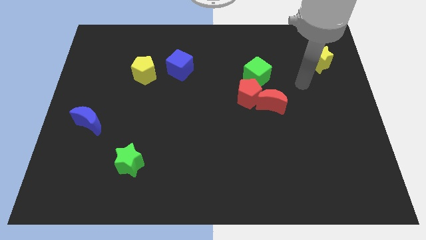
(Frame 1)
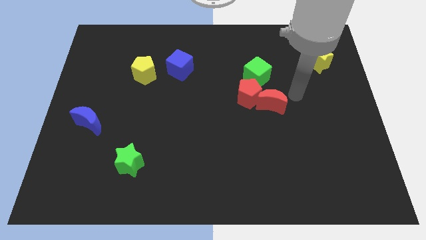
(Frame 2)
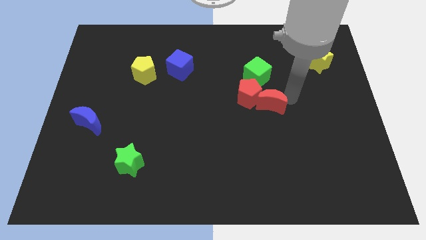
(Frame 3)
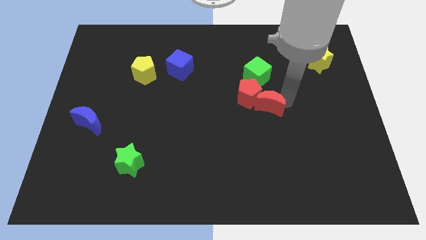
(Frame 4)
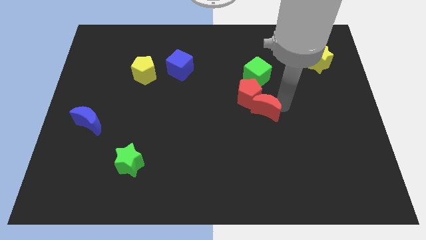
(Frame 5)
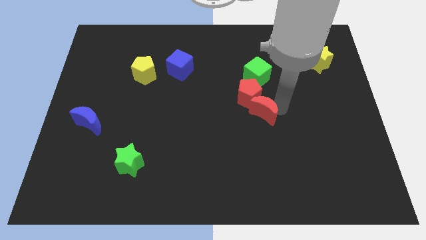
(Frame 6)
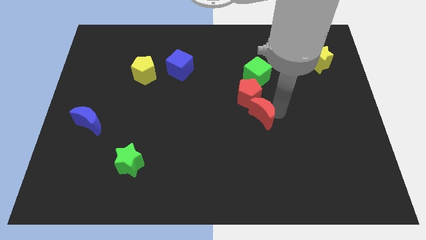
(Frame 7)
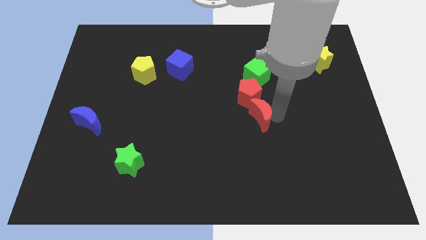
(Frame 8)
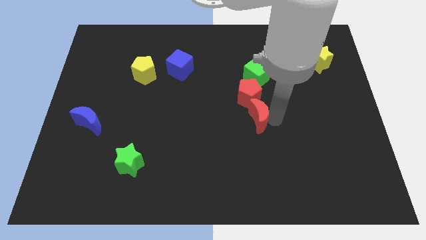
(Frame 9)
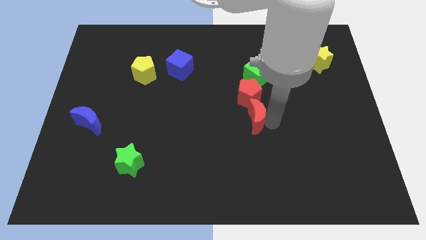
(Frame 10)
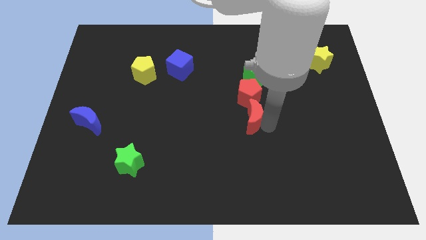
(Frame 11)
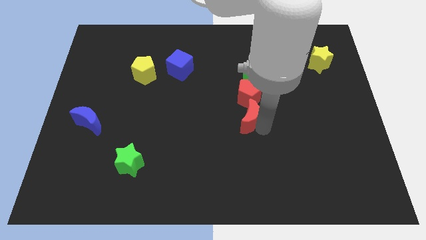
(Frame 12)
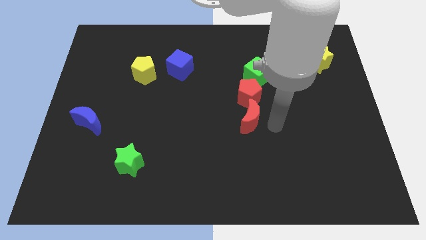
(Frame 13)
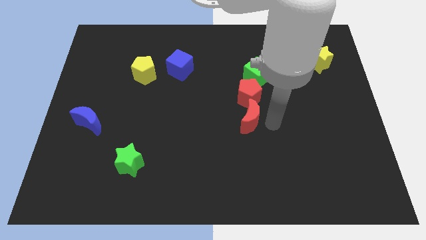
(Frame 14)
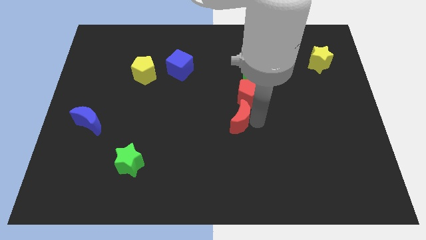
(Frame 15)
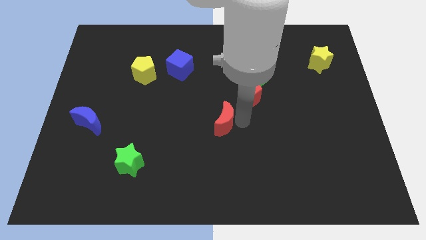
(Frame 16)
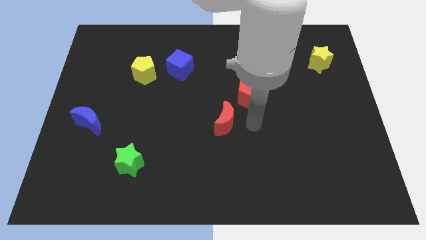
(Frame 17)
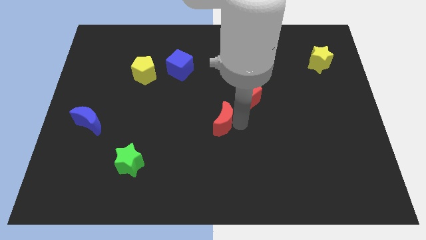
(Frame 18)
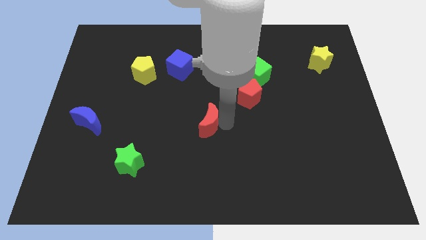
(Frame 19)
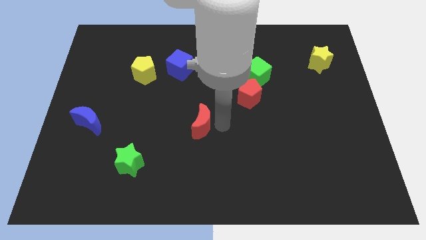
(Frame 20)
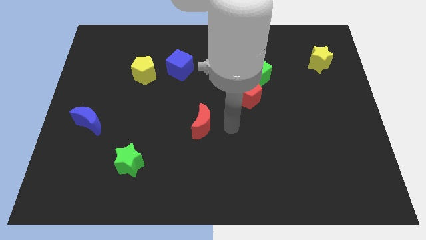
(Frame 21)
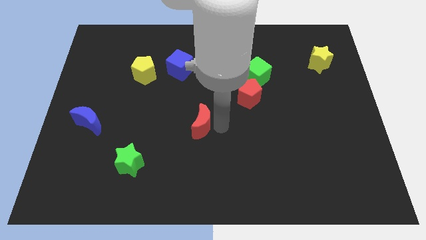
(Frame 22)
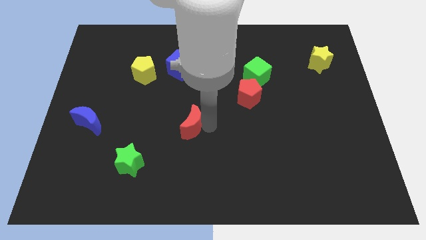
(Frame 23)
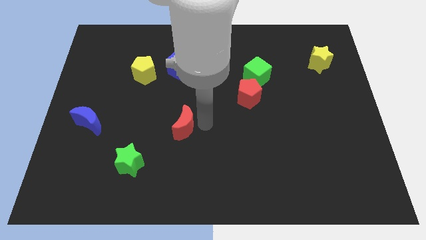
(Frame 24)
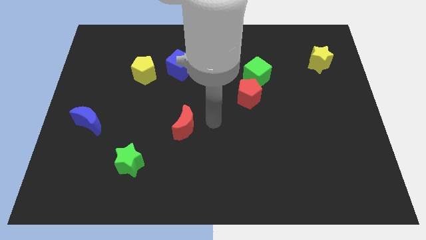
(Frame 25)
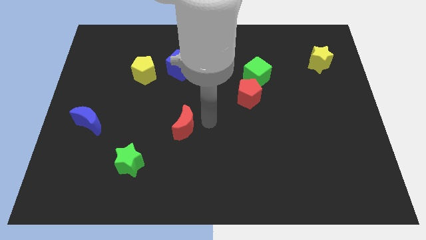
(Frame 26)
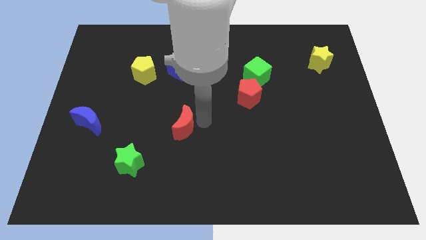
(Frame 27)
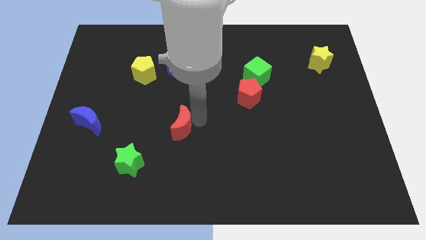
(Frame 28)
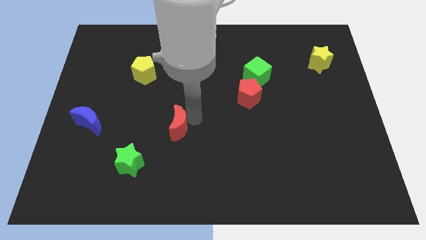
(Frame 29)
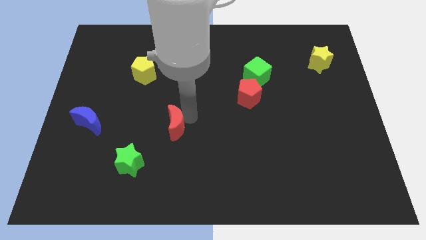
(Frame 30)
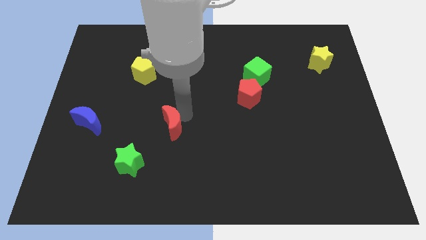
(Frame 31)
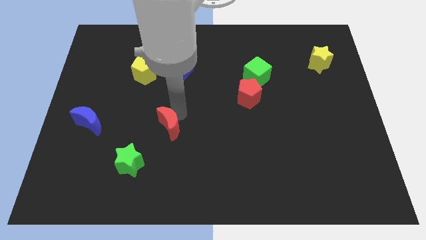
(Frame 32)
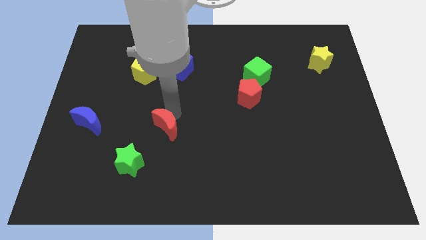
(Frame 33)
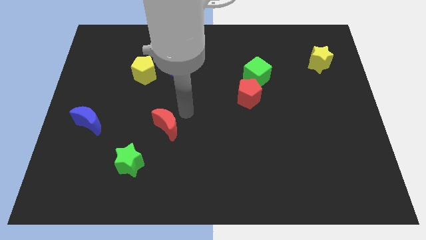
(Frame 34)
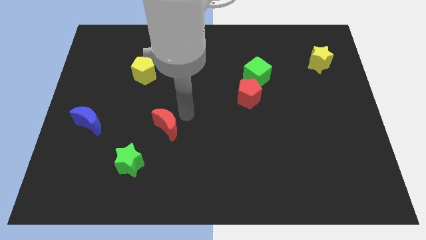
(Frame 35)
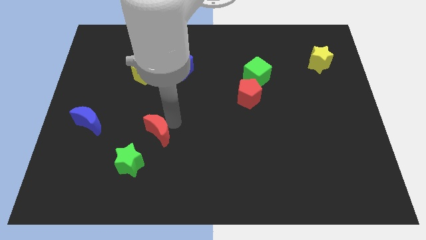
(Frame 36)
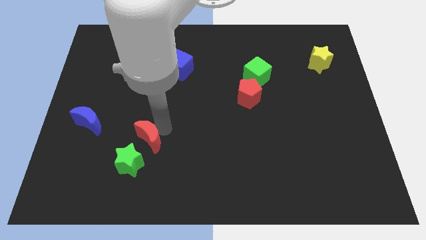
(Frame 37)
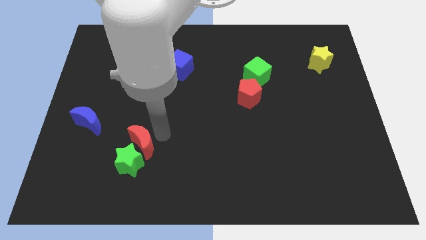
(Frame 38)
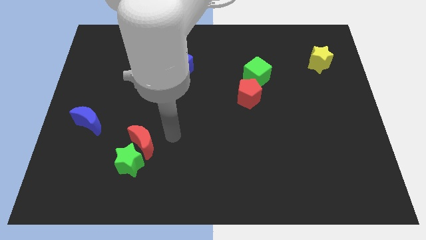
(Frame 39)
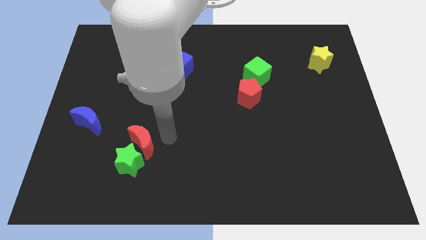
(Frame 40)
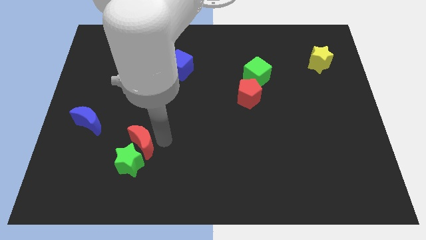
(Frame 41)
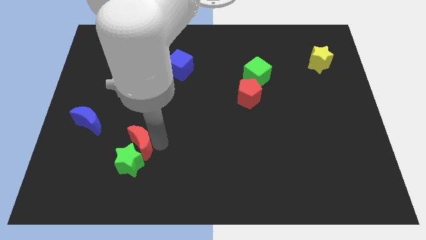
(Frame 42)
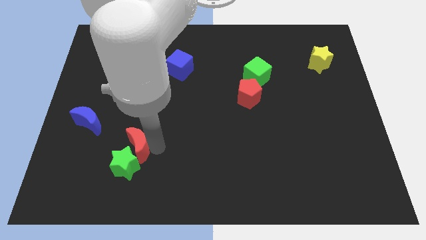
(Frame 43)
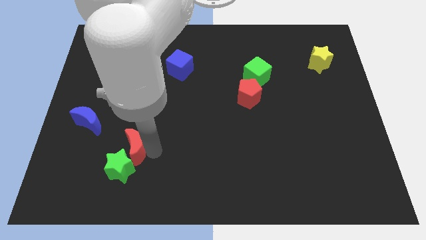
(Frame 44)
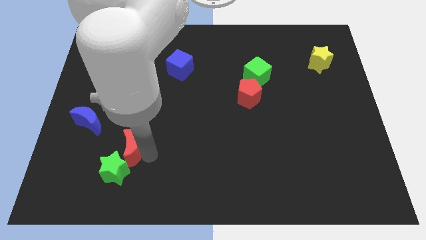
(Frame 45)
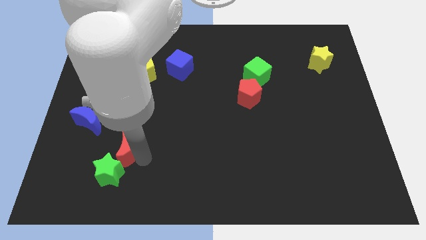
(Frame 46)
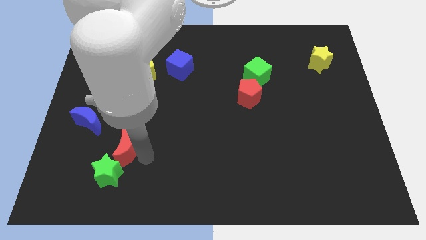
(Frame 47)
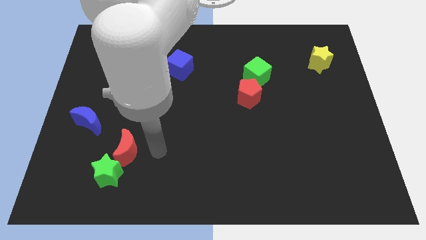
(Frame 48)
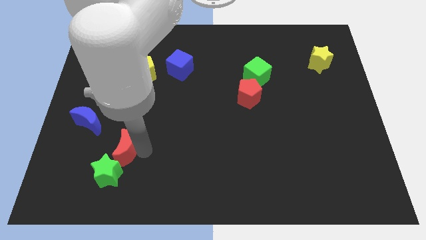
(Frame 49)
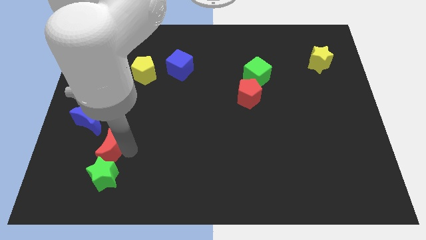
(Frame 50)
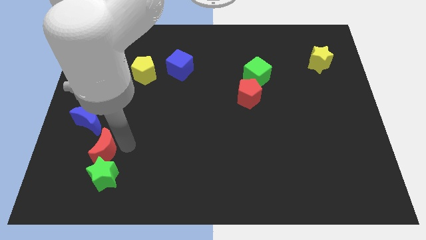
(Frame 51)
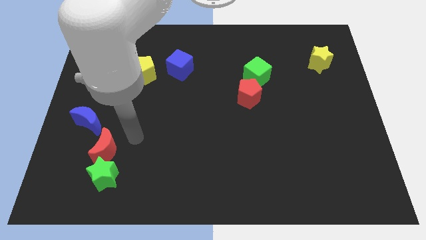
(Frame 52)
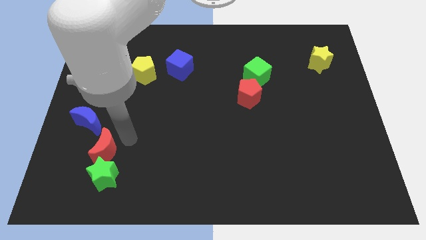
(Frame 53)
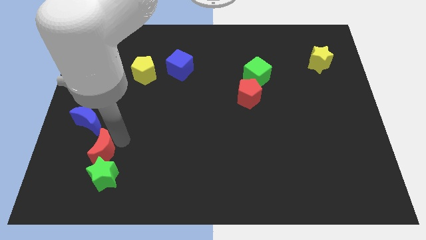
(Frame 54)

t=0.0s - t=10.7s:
move the red moon to the bottom of the blue moon

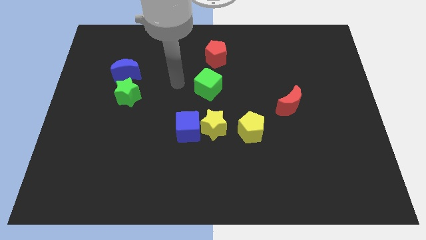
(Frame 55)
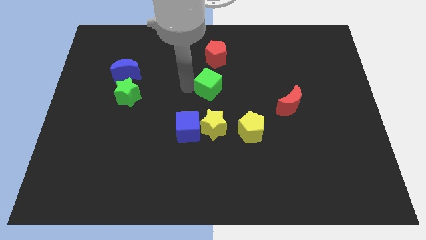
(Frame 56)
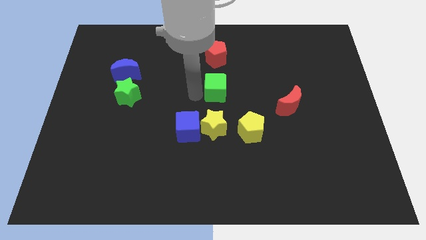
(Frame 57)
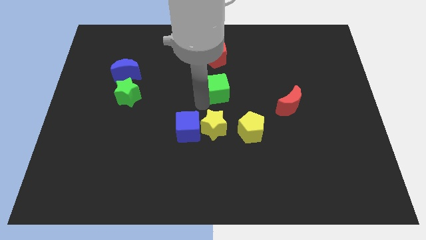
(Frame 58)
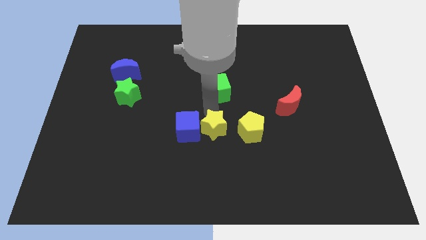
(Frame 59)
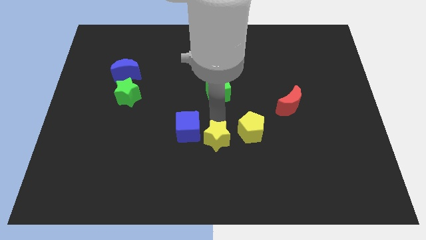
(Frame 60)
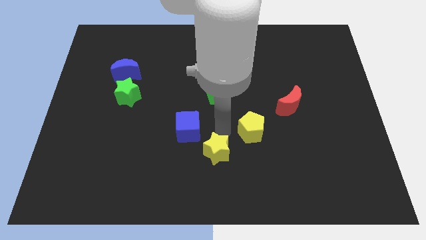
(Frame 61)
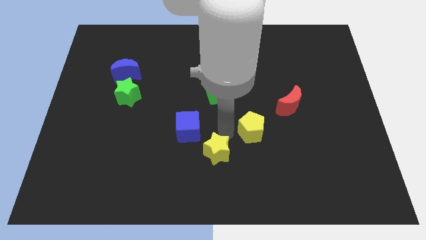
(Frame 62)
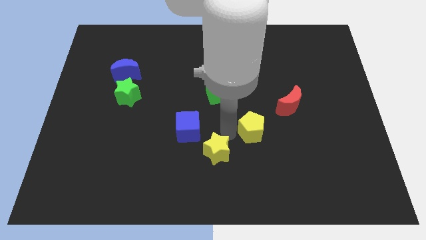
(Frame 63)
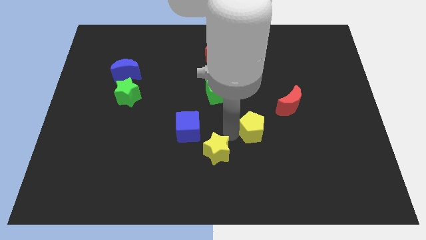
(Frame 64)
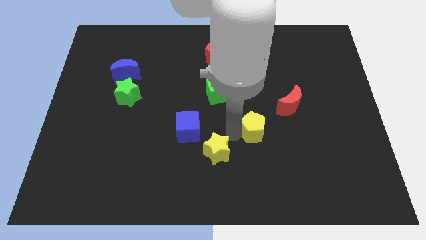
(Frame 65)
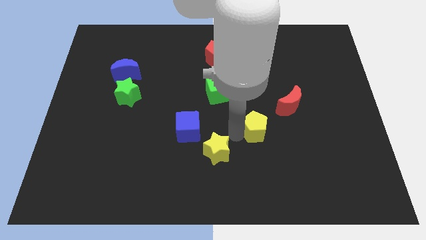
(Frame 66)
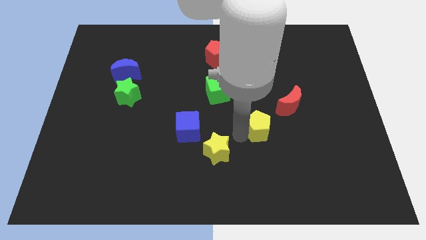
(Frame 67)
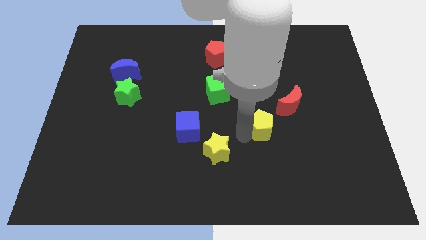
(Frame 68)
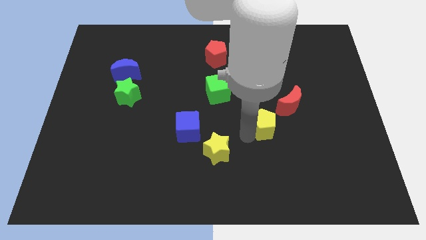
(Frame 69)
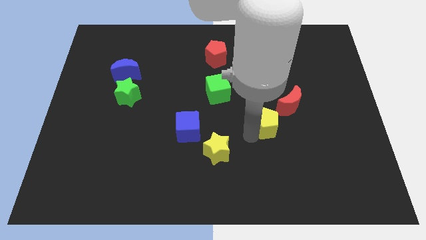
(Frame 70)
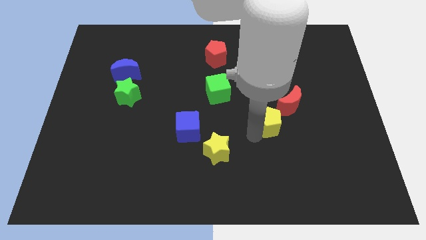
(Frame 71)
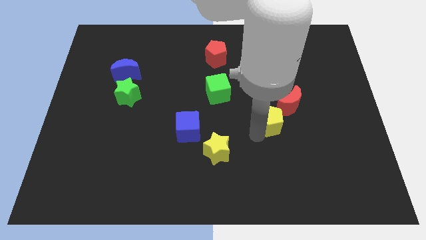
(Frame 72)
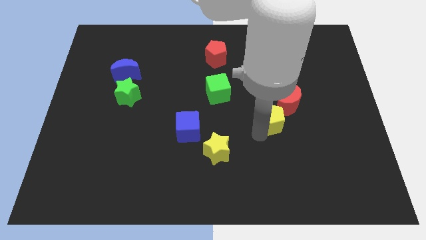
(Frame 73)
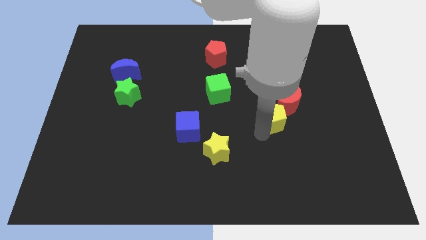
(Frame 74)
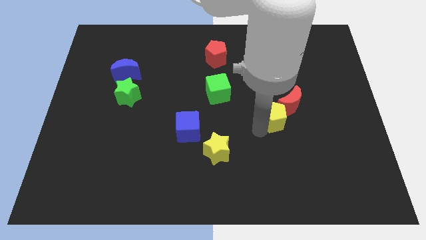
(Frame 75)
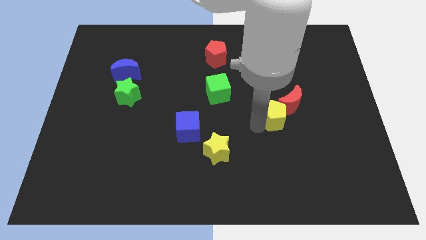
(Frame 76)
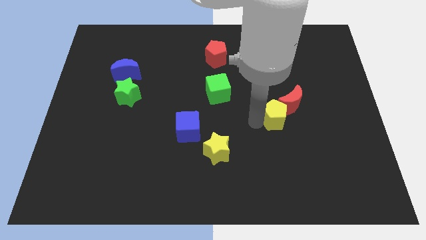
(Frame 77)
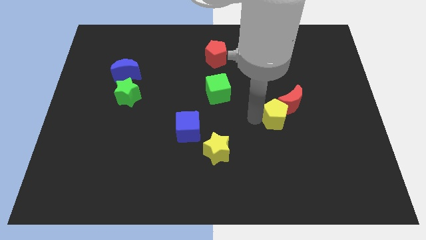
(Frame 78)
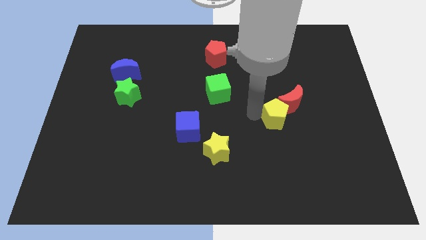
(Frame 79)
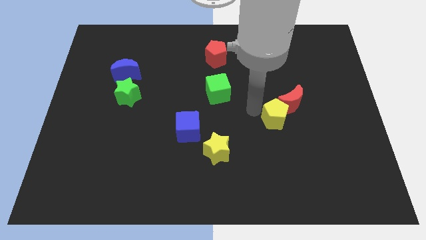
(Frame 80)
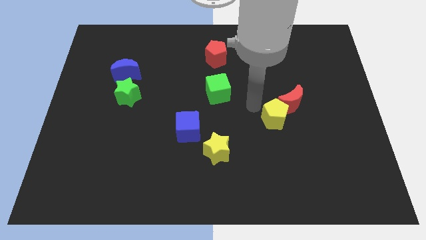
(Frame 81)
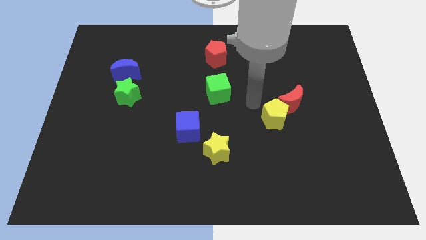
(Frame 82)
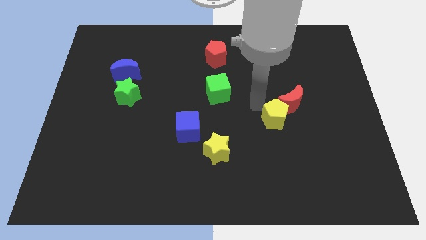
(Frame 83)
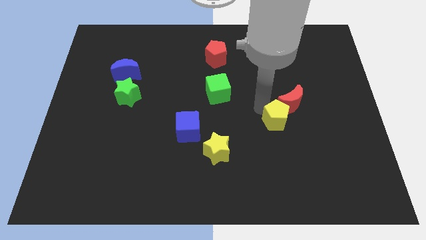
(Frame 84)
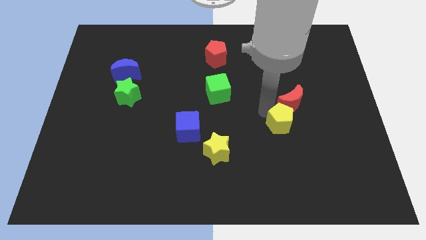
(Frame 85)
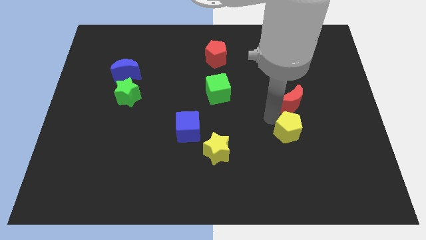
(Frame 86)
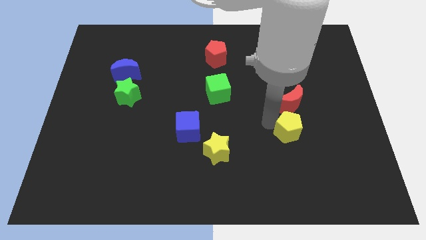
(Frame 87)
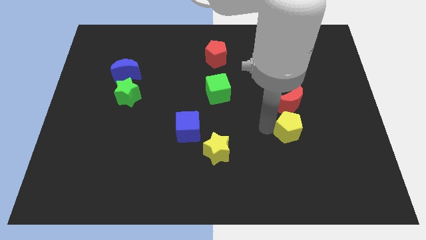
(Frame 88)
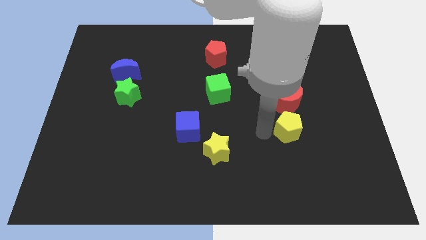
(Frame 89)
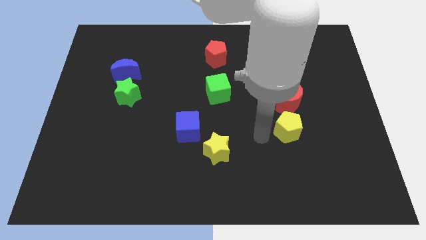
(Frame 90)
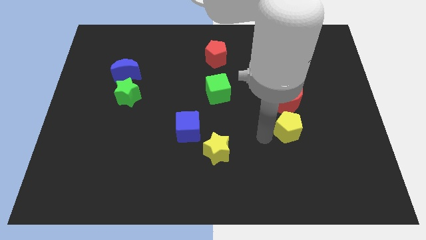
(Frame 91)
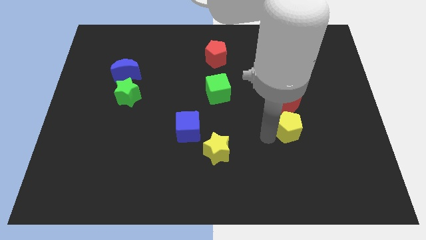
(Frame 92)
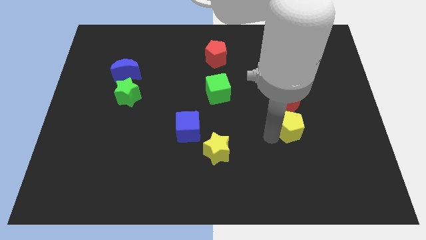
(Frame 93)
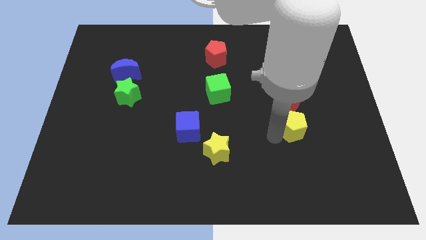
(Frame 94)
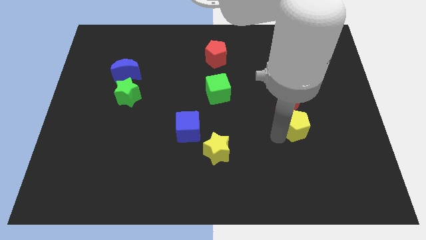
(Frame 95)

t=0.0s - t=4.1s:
slide the yellow pentagon to the bottom right of the red moon
